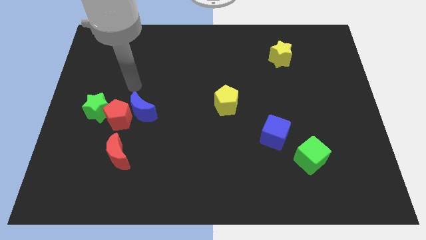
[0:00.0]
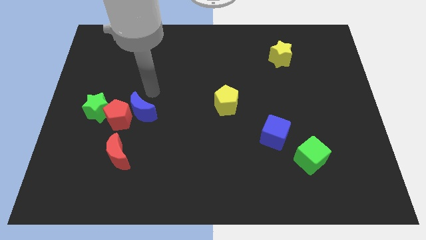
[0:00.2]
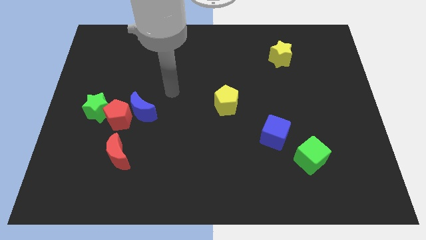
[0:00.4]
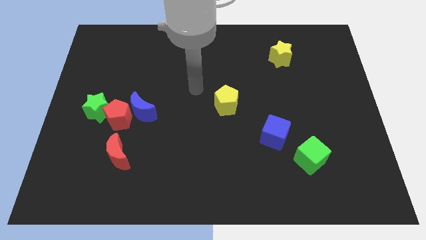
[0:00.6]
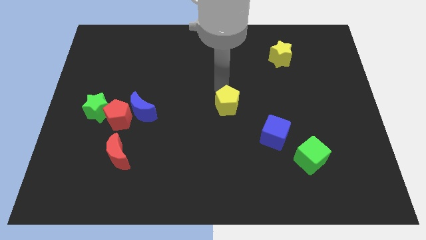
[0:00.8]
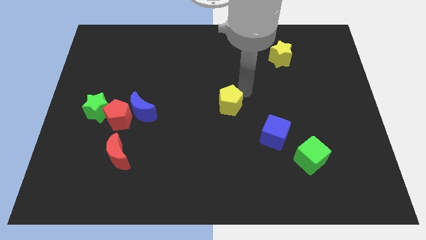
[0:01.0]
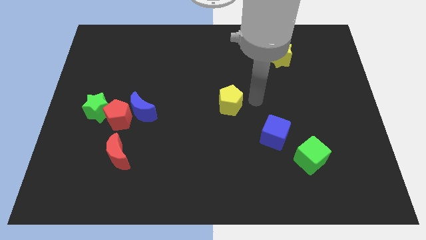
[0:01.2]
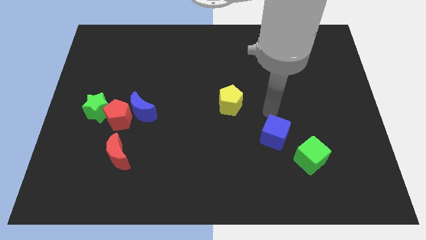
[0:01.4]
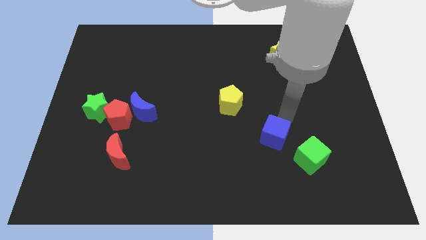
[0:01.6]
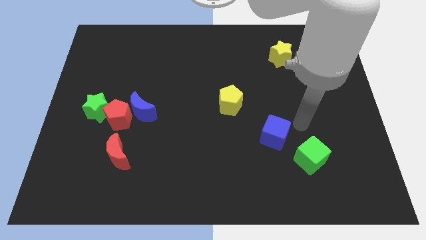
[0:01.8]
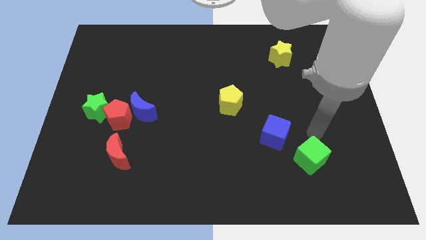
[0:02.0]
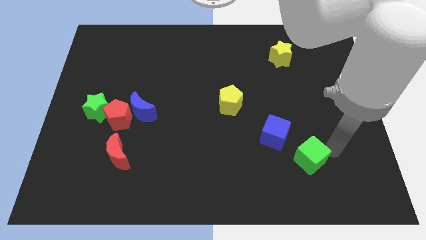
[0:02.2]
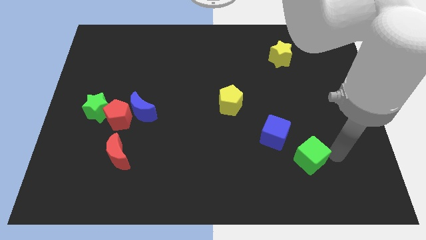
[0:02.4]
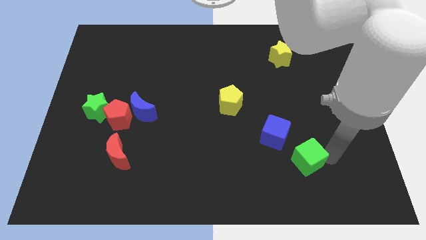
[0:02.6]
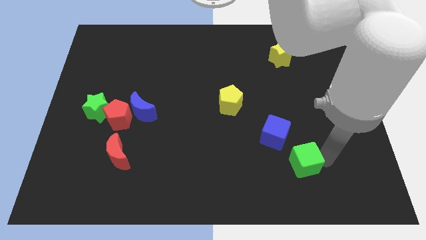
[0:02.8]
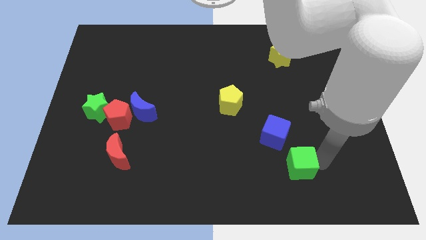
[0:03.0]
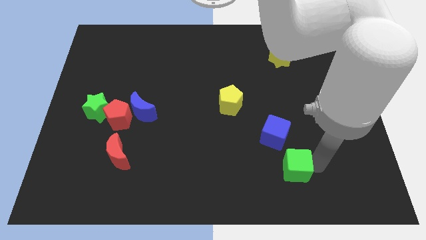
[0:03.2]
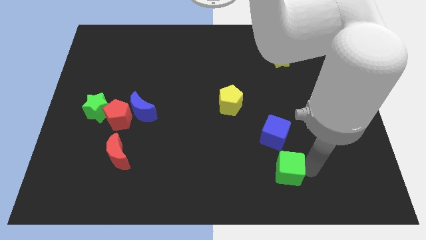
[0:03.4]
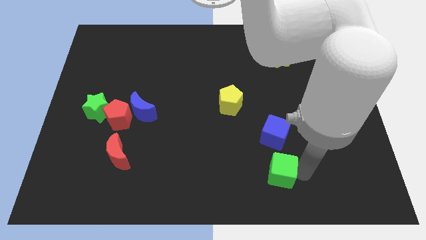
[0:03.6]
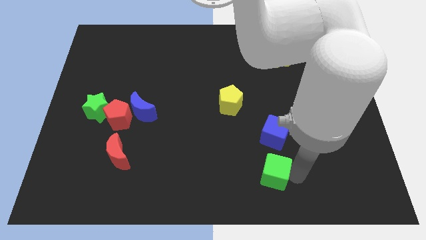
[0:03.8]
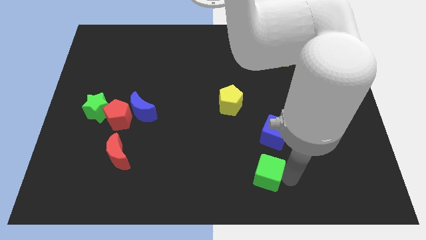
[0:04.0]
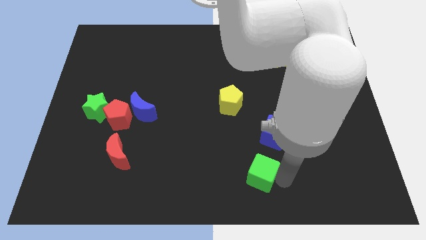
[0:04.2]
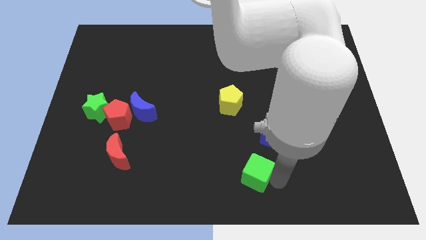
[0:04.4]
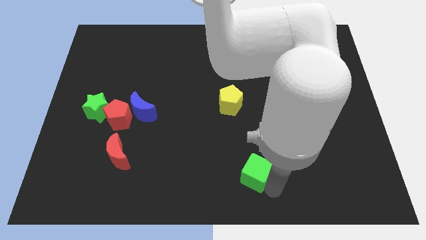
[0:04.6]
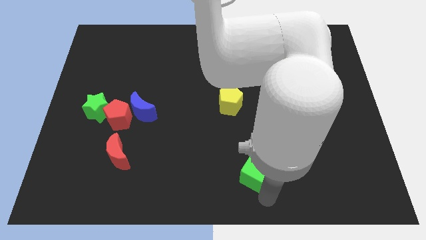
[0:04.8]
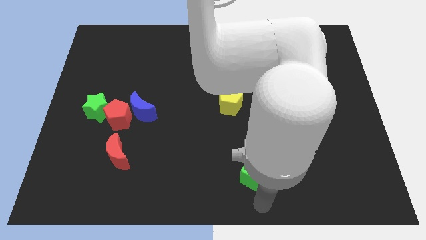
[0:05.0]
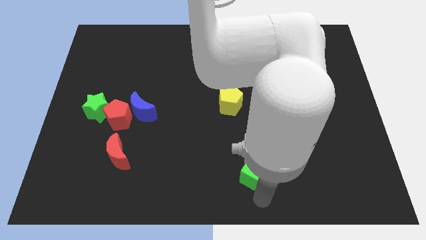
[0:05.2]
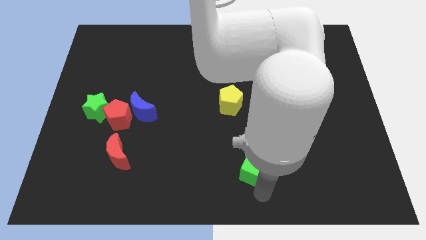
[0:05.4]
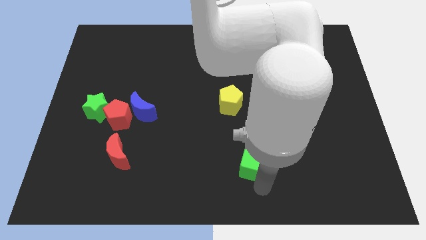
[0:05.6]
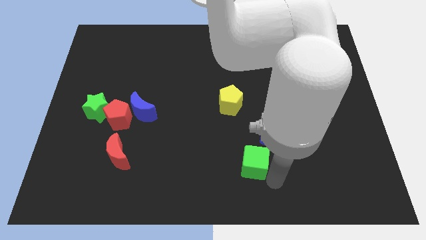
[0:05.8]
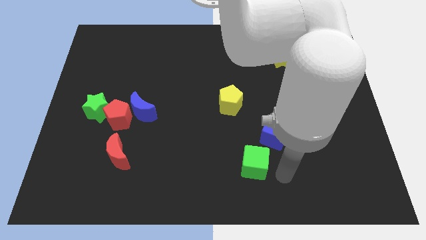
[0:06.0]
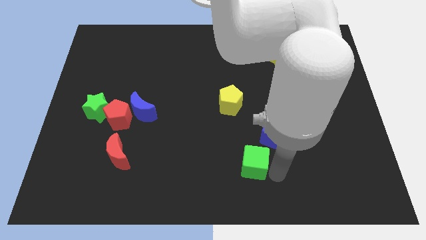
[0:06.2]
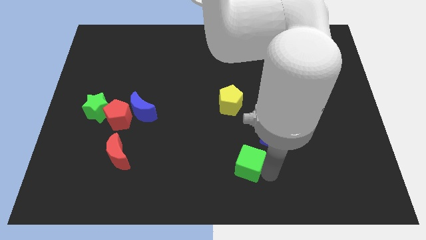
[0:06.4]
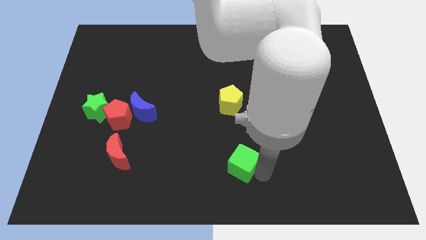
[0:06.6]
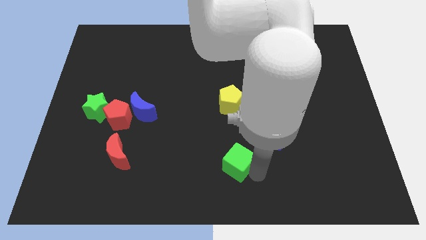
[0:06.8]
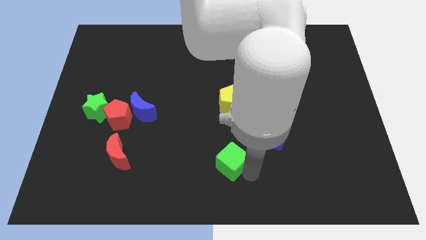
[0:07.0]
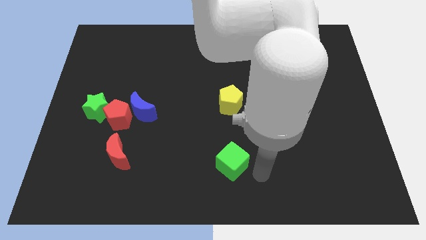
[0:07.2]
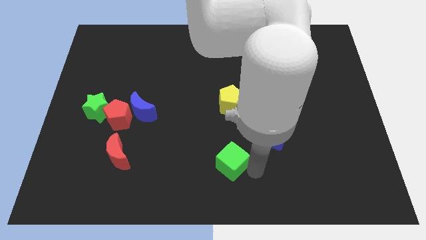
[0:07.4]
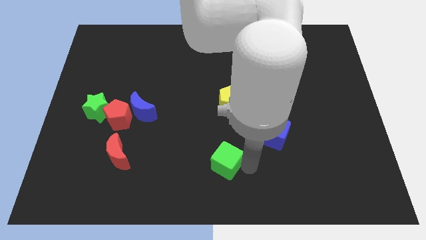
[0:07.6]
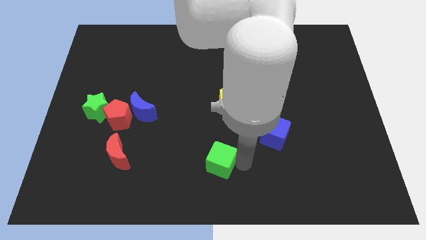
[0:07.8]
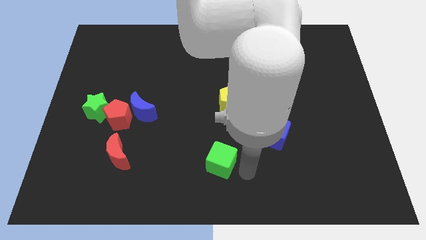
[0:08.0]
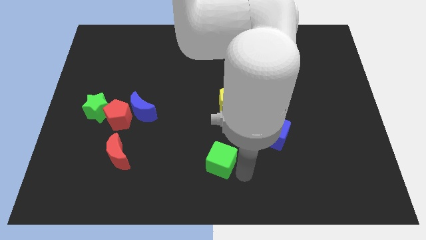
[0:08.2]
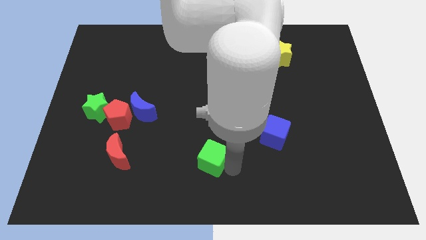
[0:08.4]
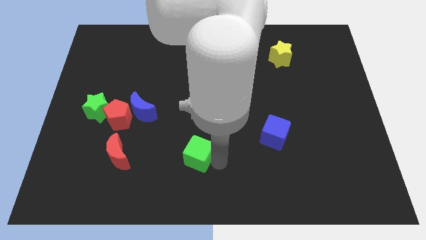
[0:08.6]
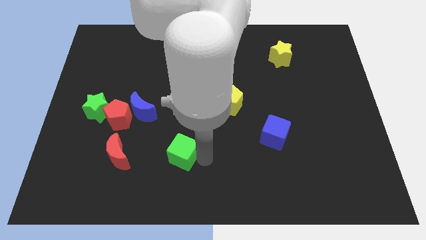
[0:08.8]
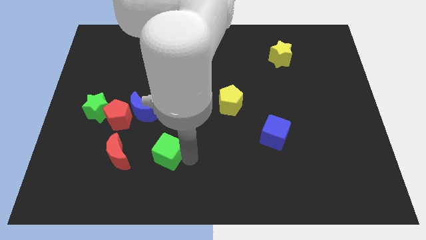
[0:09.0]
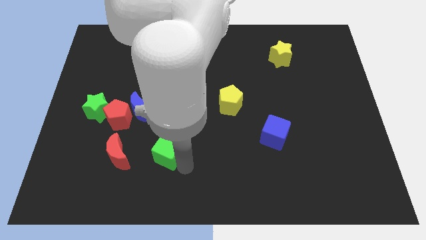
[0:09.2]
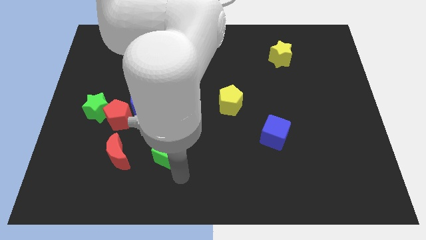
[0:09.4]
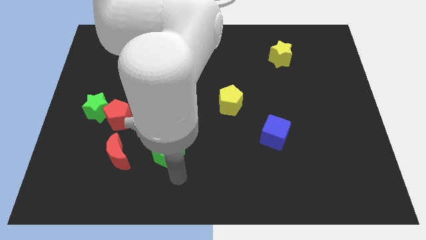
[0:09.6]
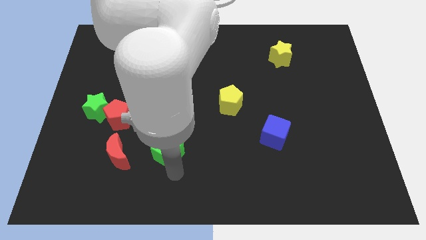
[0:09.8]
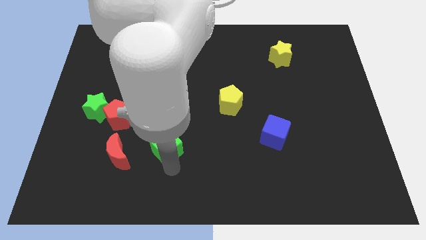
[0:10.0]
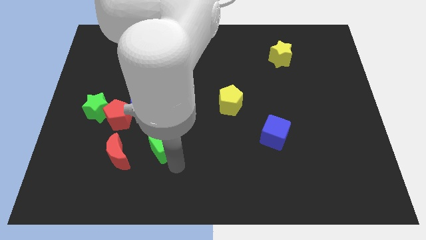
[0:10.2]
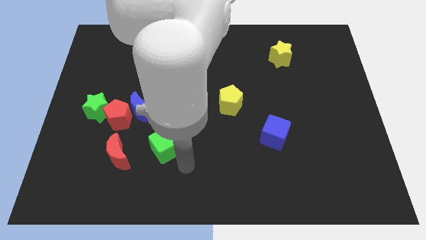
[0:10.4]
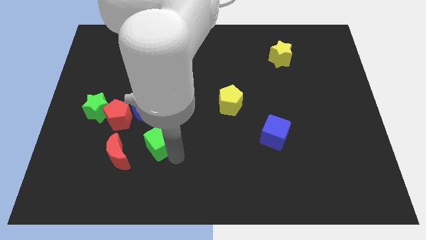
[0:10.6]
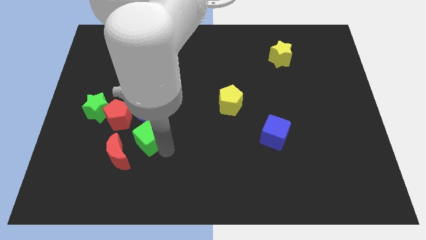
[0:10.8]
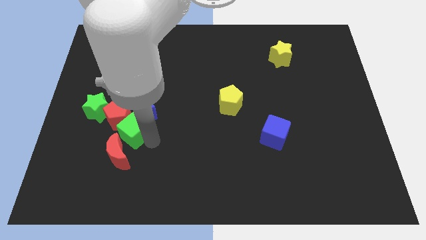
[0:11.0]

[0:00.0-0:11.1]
slide the green cube to the red pentagon

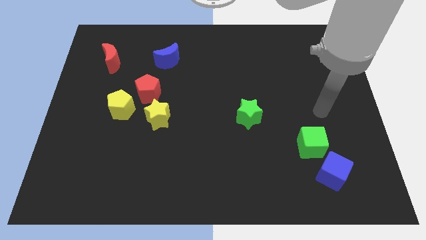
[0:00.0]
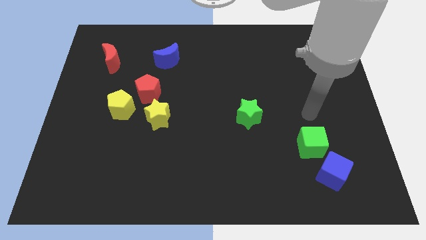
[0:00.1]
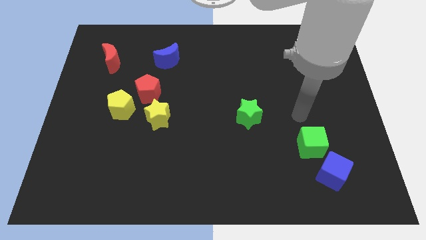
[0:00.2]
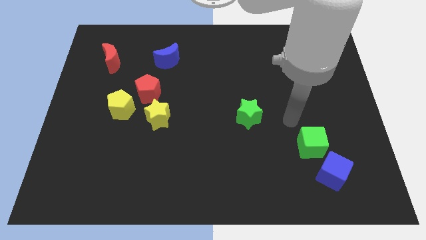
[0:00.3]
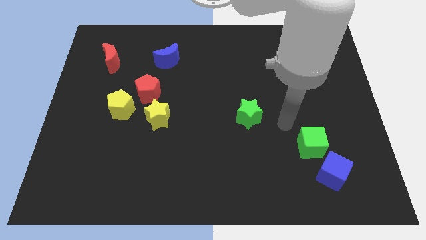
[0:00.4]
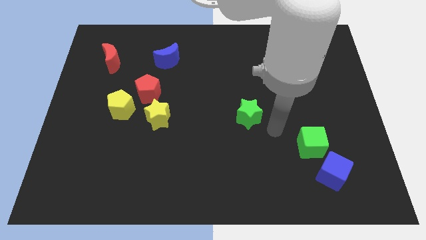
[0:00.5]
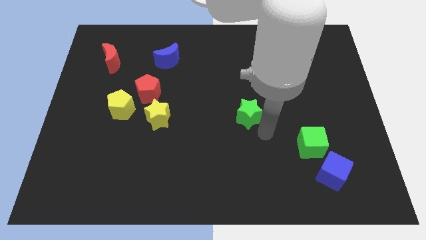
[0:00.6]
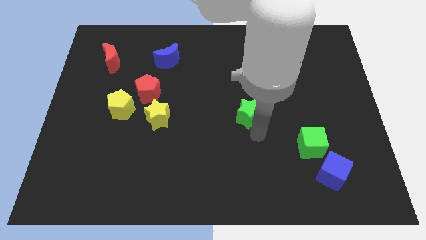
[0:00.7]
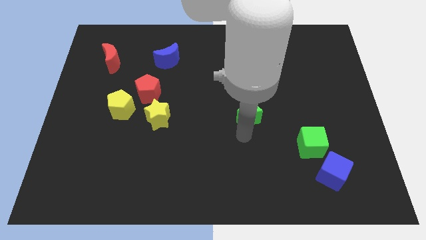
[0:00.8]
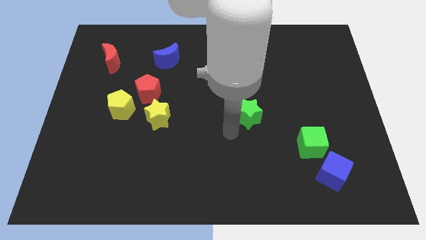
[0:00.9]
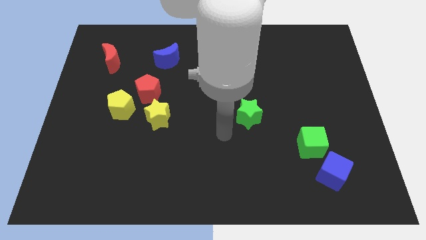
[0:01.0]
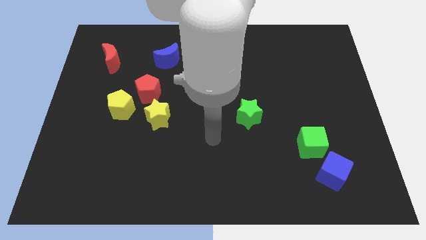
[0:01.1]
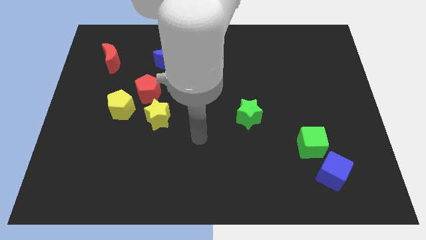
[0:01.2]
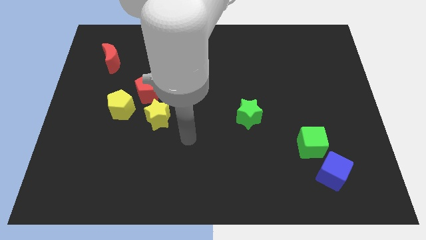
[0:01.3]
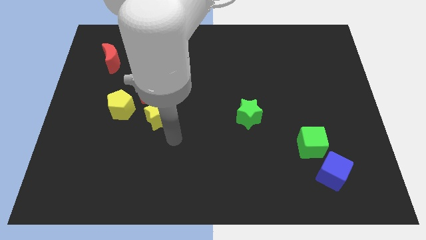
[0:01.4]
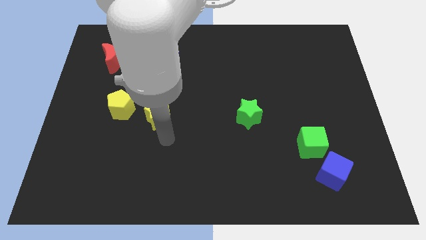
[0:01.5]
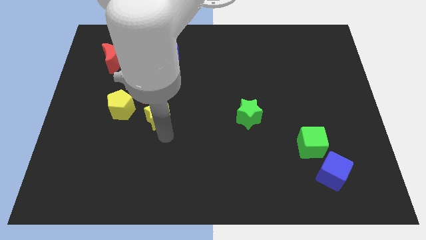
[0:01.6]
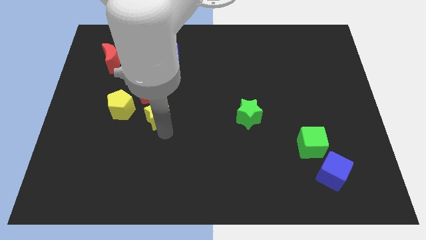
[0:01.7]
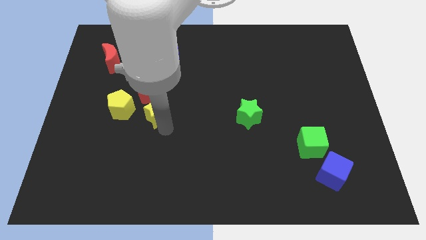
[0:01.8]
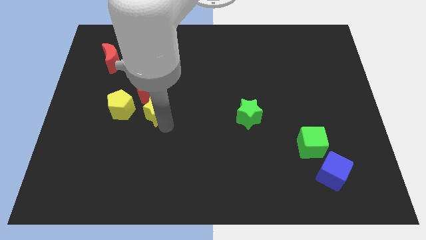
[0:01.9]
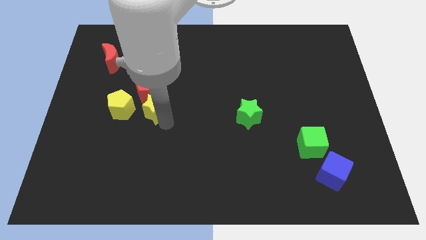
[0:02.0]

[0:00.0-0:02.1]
push the yellow star next to the red pentagon
